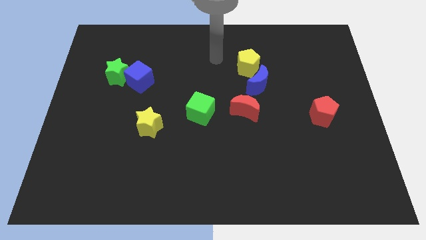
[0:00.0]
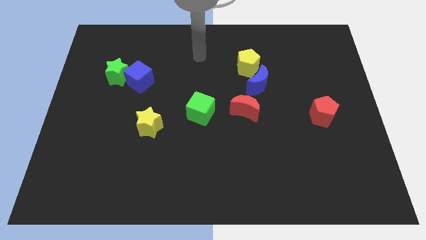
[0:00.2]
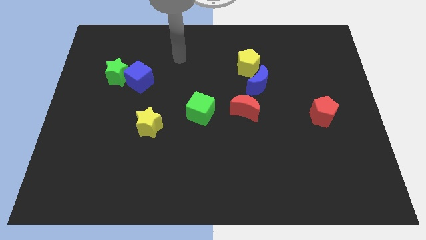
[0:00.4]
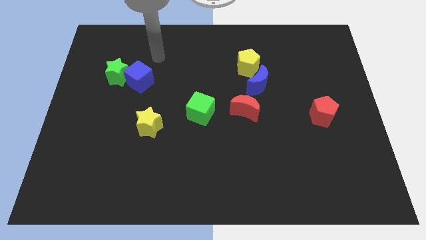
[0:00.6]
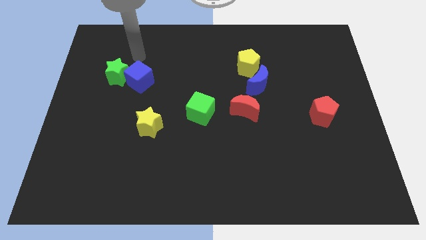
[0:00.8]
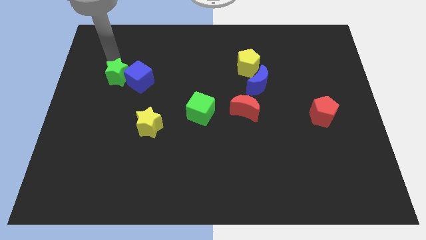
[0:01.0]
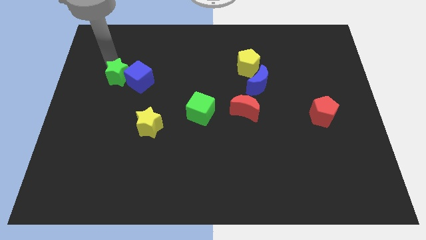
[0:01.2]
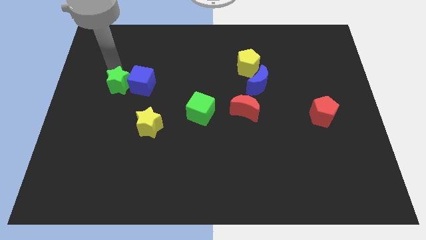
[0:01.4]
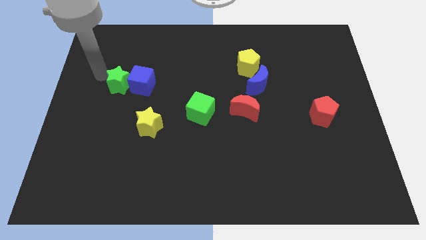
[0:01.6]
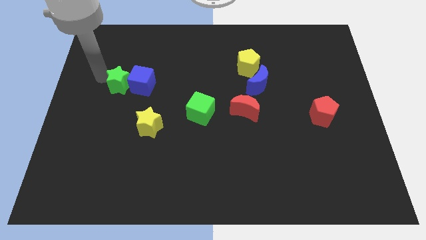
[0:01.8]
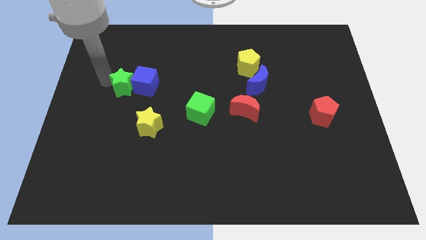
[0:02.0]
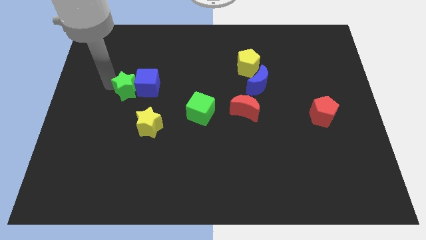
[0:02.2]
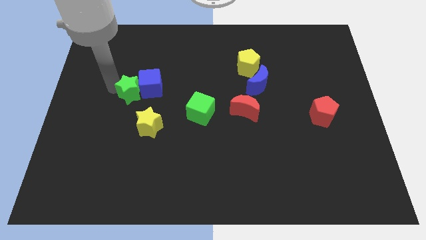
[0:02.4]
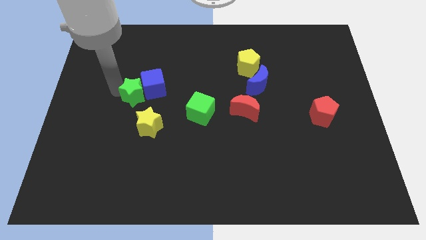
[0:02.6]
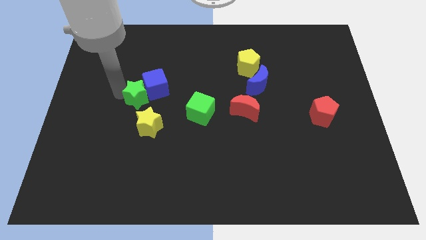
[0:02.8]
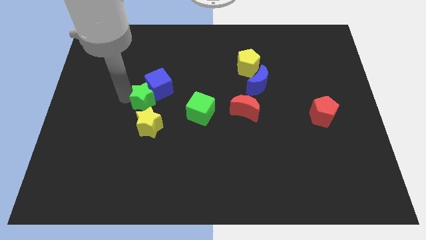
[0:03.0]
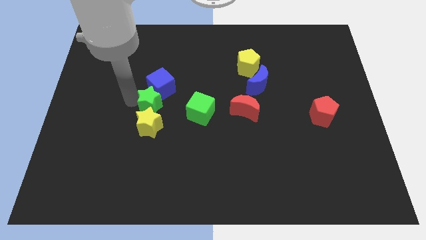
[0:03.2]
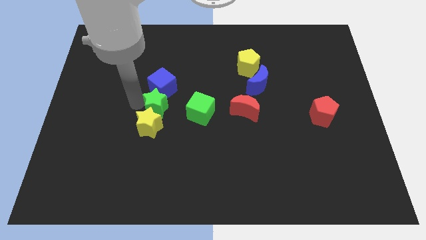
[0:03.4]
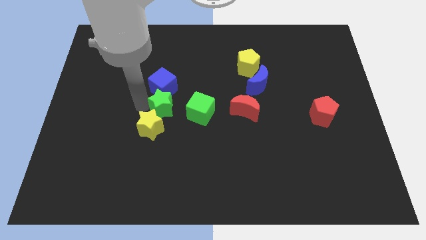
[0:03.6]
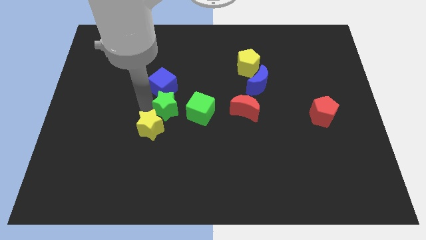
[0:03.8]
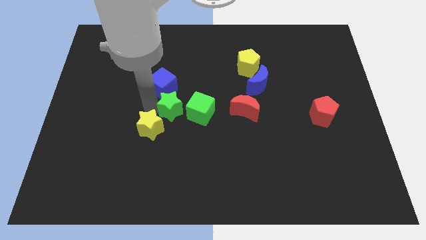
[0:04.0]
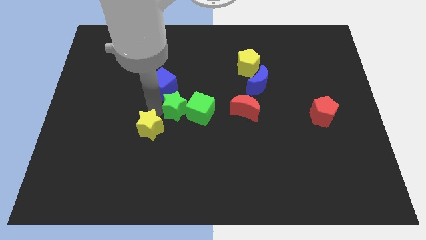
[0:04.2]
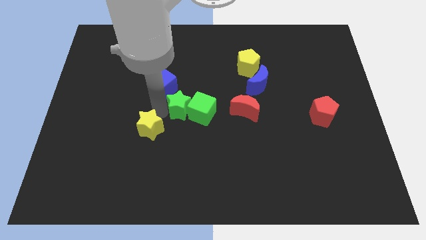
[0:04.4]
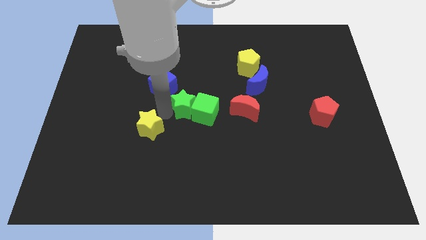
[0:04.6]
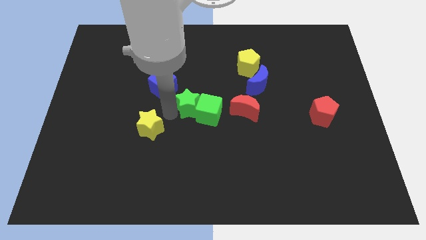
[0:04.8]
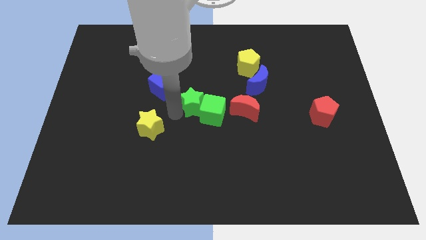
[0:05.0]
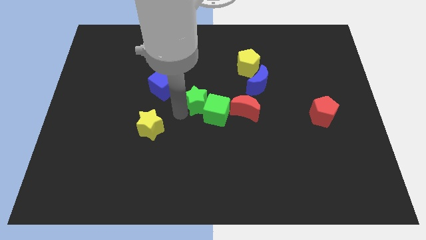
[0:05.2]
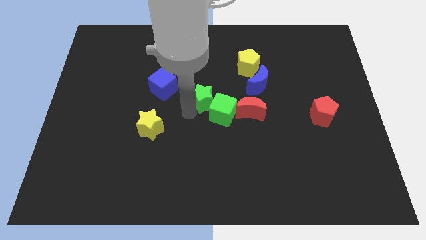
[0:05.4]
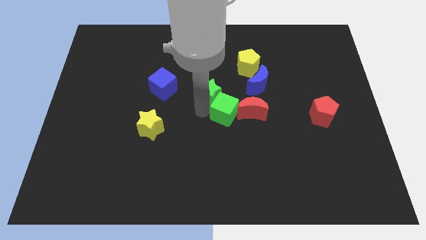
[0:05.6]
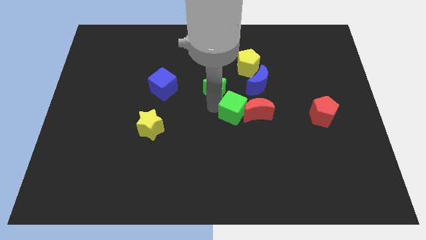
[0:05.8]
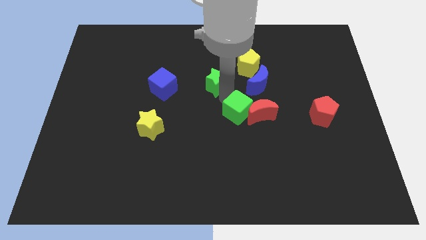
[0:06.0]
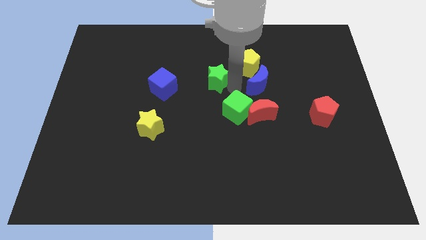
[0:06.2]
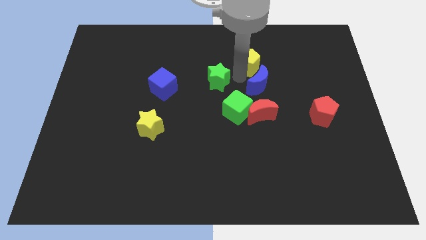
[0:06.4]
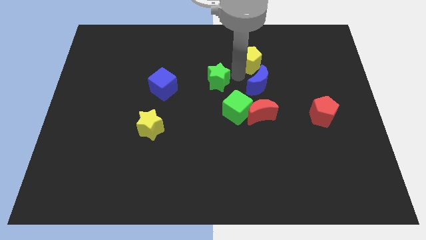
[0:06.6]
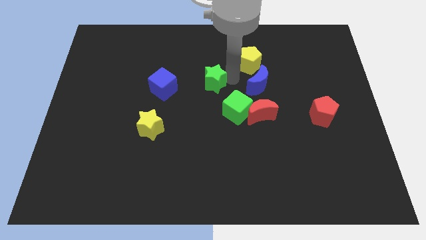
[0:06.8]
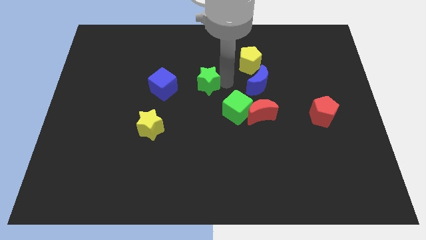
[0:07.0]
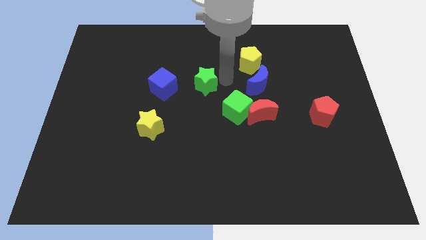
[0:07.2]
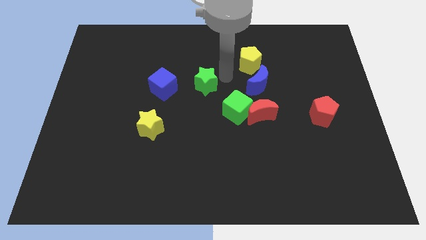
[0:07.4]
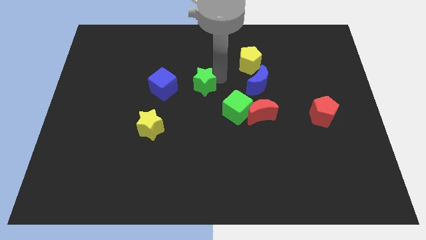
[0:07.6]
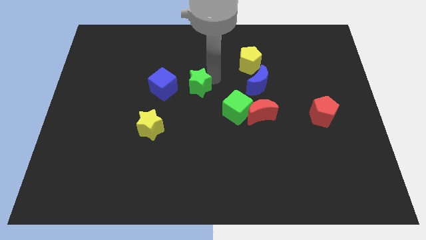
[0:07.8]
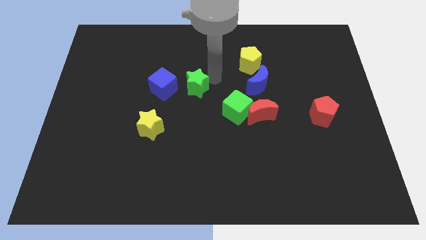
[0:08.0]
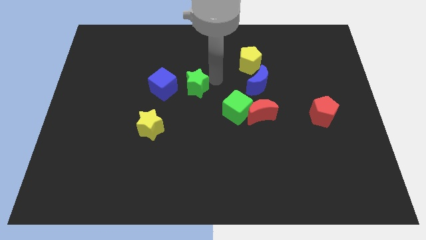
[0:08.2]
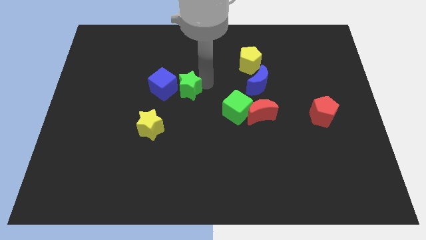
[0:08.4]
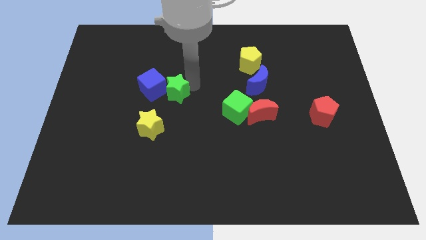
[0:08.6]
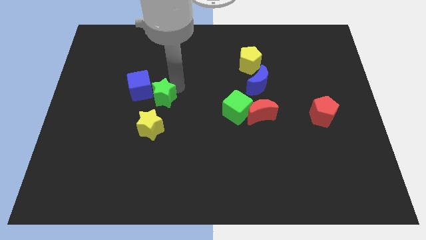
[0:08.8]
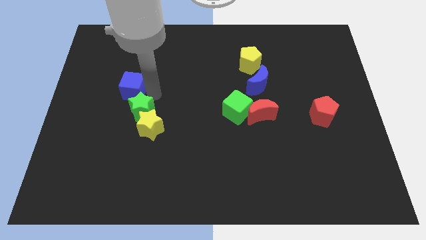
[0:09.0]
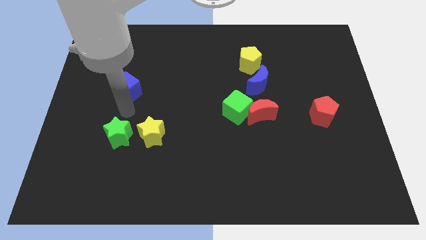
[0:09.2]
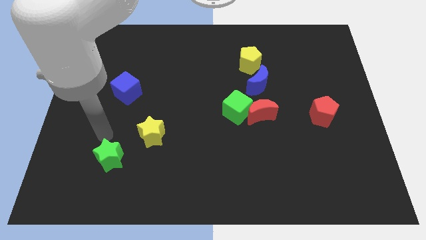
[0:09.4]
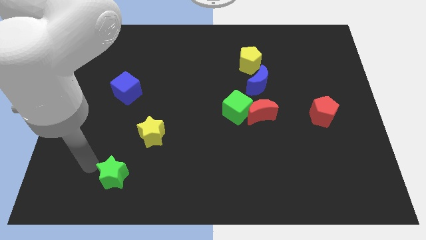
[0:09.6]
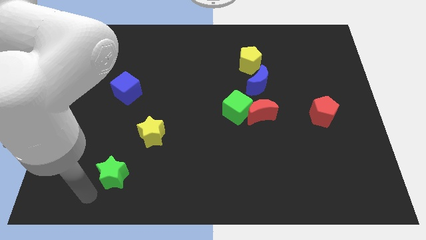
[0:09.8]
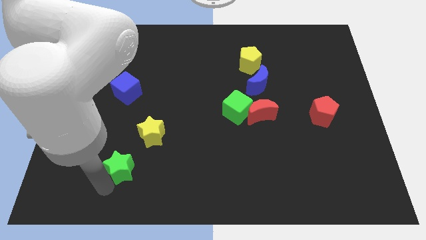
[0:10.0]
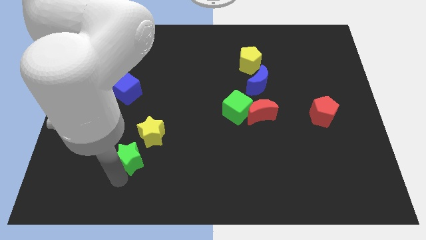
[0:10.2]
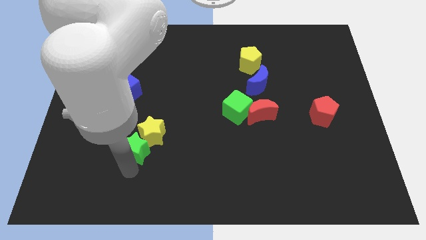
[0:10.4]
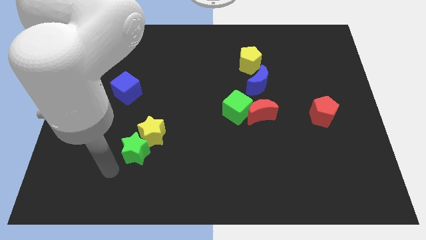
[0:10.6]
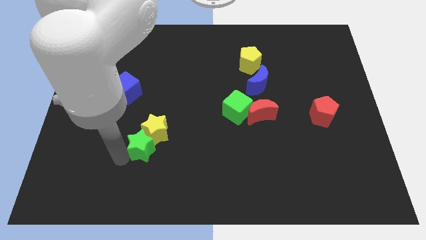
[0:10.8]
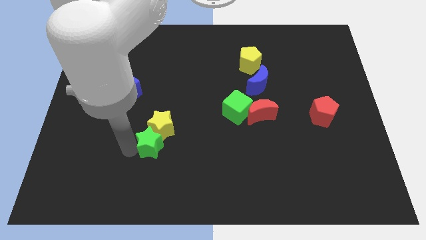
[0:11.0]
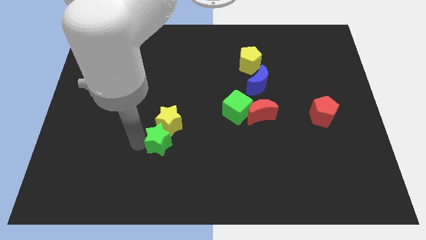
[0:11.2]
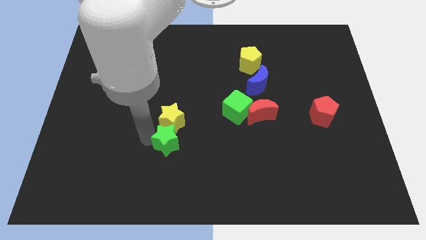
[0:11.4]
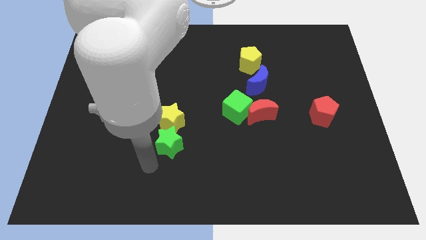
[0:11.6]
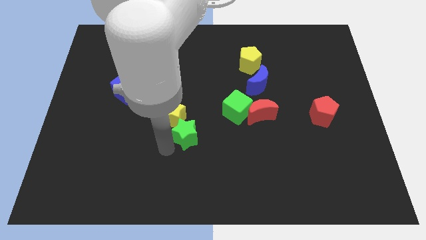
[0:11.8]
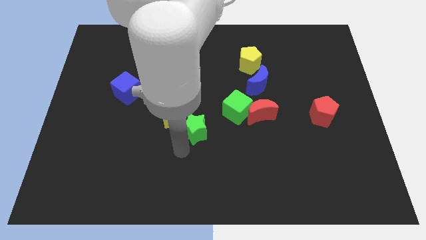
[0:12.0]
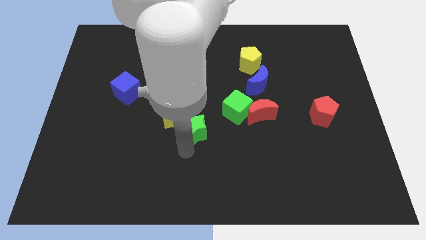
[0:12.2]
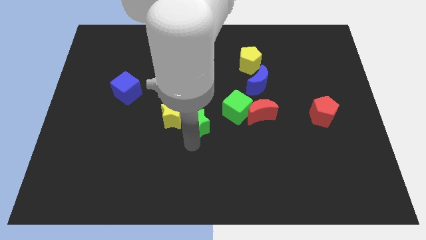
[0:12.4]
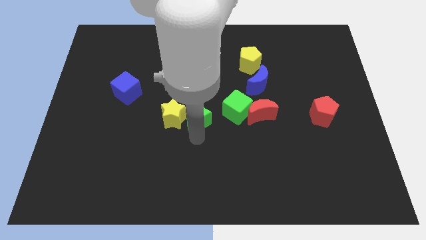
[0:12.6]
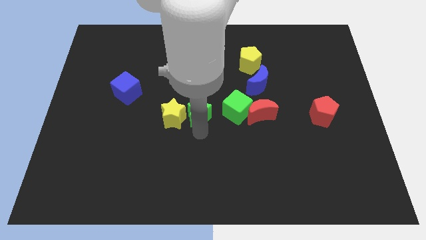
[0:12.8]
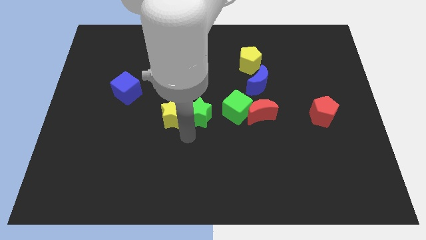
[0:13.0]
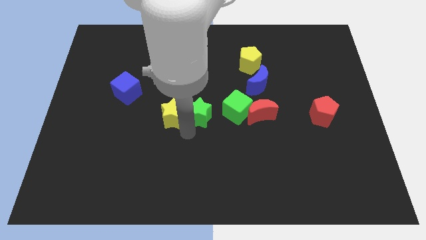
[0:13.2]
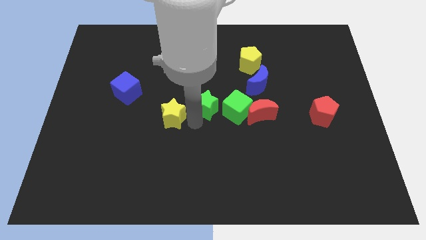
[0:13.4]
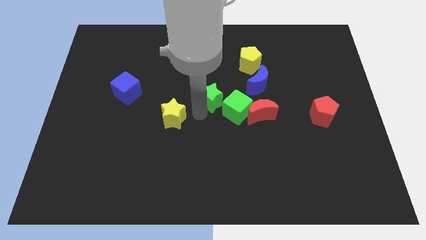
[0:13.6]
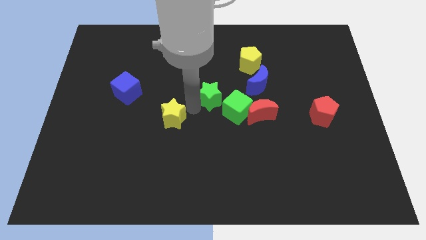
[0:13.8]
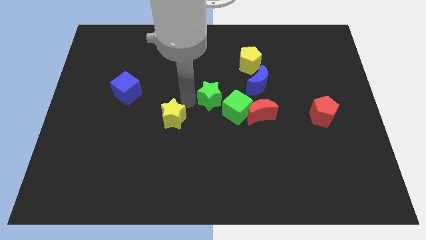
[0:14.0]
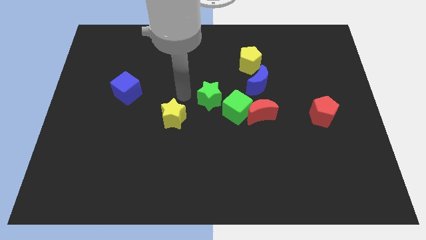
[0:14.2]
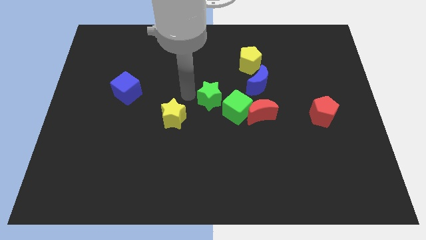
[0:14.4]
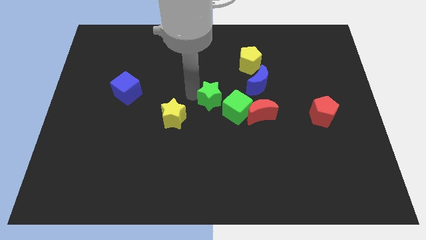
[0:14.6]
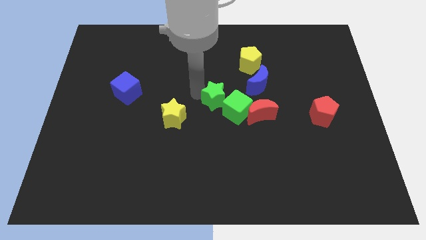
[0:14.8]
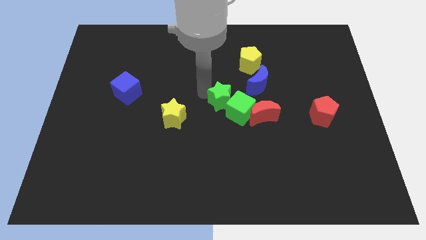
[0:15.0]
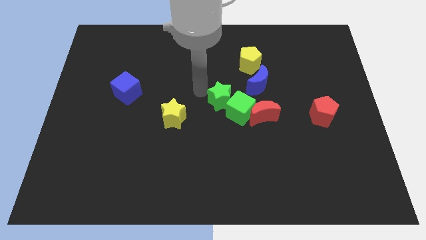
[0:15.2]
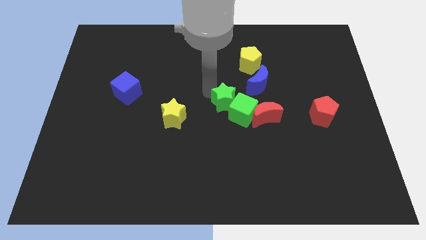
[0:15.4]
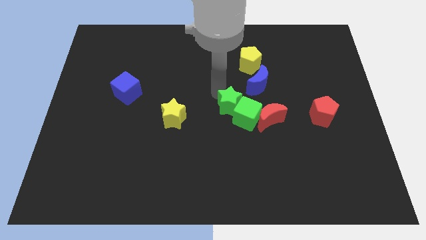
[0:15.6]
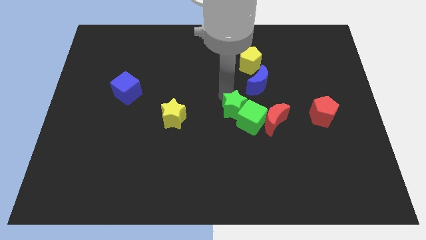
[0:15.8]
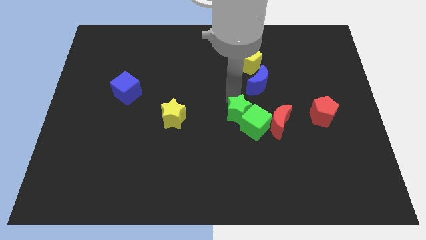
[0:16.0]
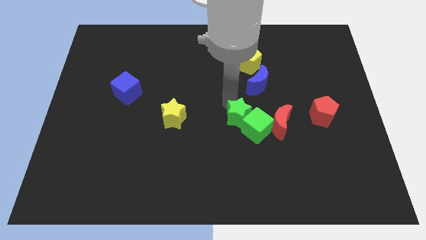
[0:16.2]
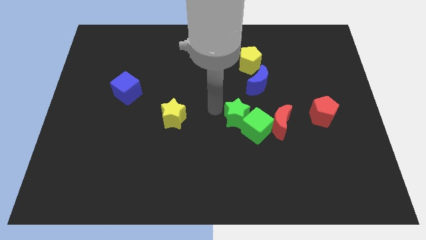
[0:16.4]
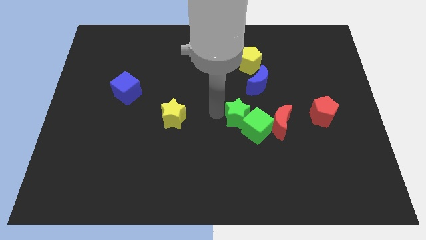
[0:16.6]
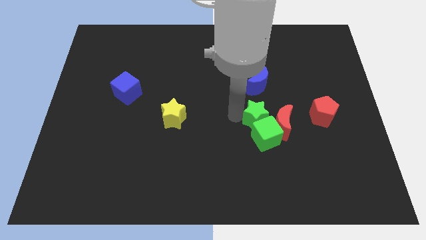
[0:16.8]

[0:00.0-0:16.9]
slide the green star towards the red moon
